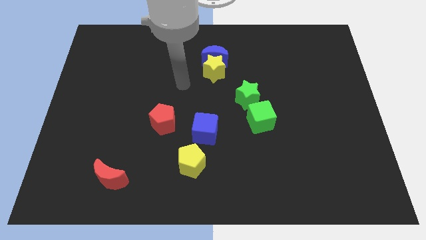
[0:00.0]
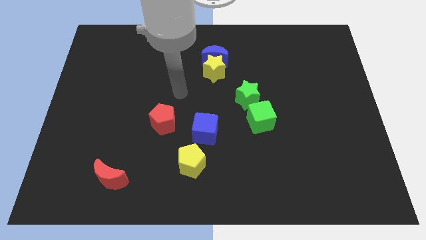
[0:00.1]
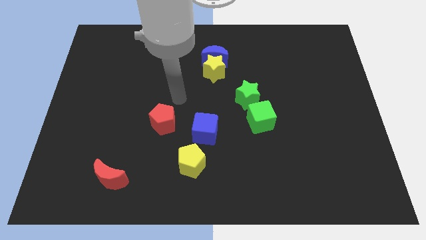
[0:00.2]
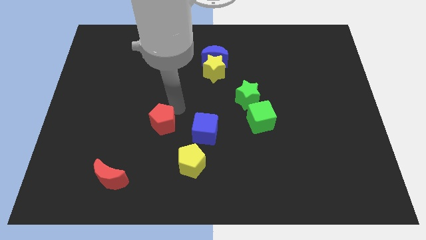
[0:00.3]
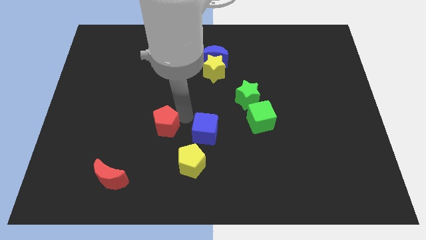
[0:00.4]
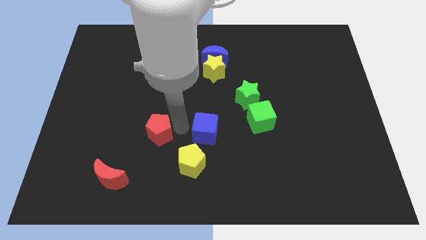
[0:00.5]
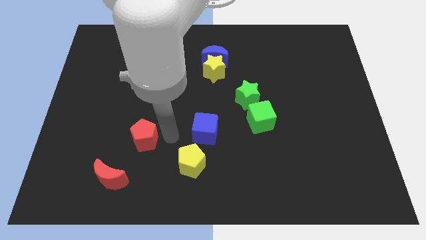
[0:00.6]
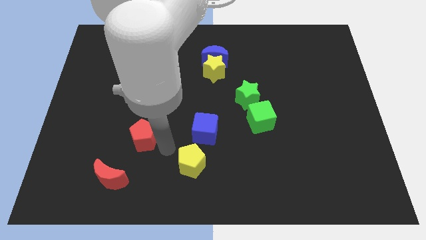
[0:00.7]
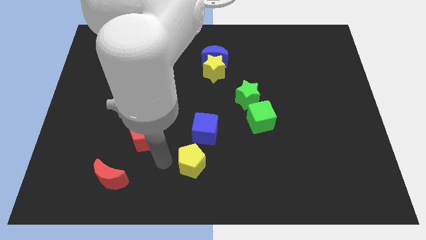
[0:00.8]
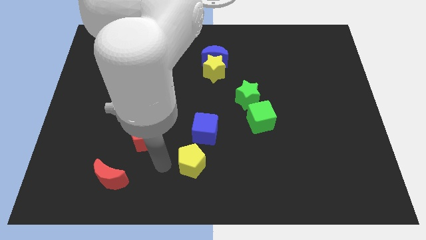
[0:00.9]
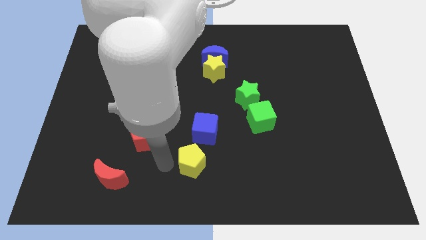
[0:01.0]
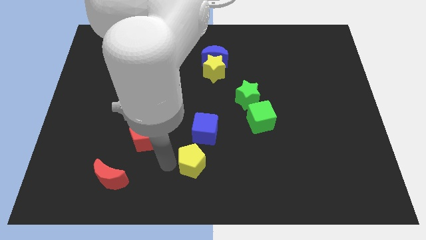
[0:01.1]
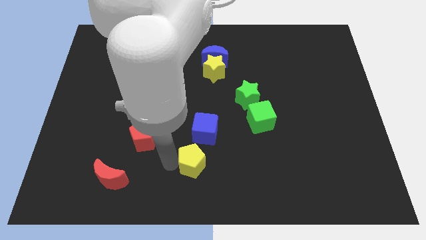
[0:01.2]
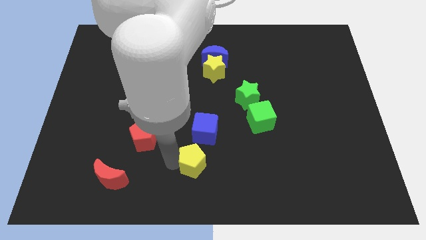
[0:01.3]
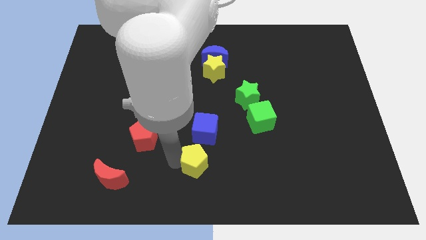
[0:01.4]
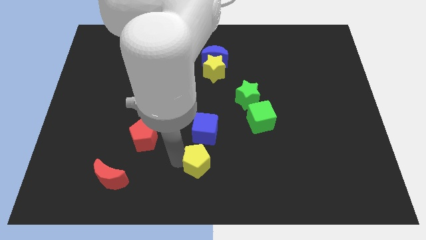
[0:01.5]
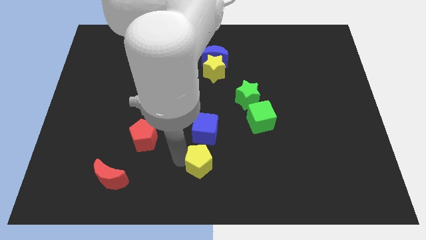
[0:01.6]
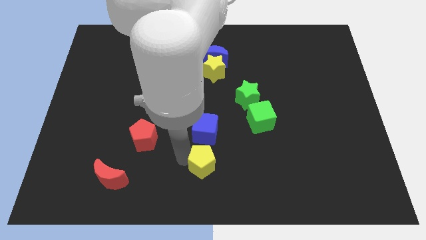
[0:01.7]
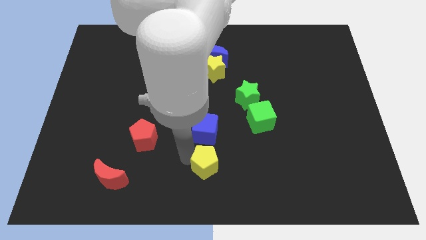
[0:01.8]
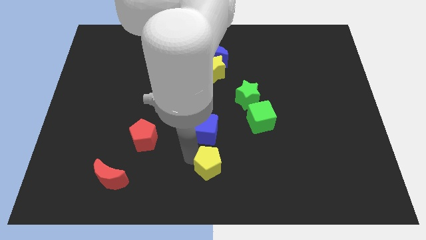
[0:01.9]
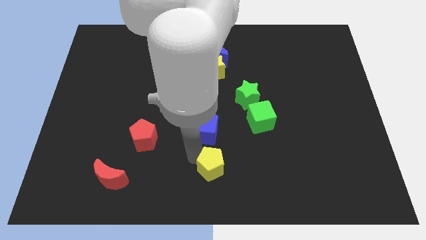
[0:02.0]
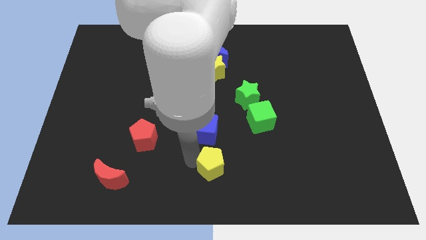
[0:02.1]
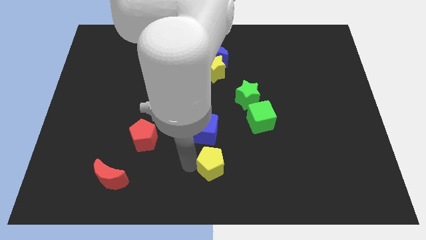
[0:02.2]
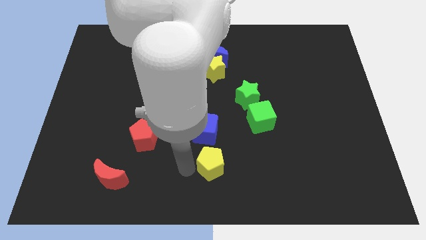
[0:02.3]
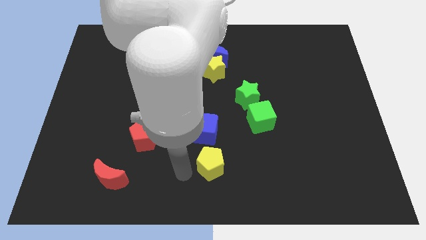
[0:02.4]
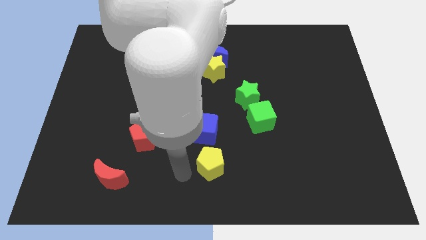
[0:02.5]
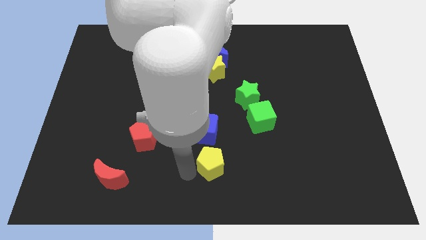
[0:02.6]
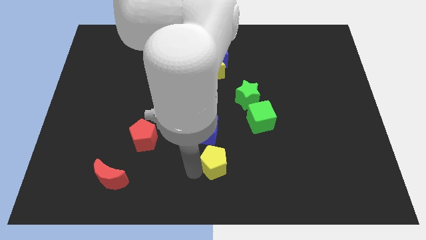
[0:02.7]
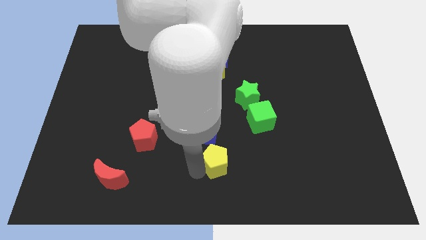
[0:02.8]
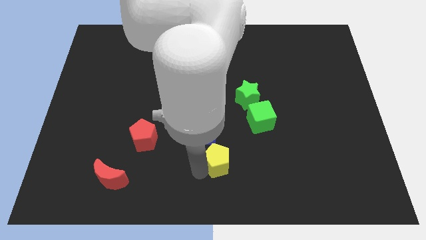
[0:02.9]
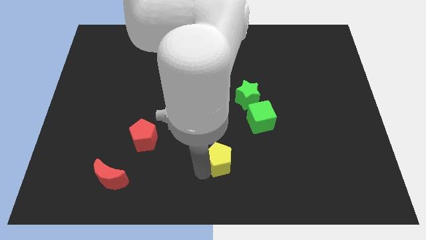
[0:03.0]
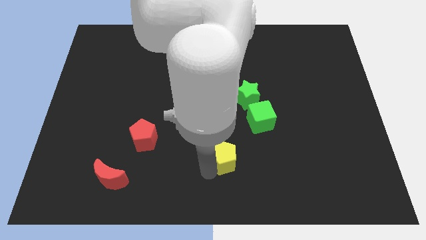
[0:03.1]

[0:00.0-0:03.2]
slide the yellow pentagon a little right

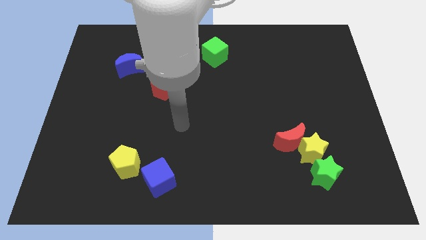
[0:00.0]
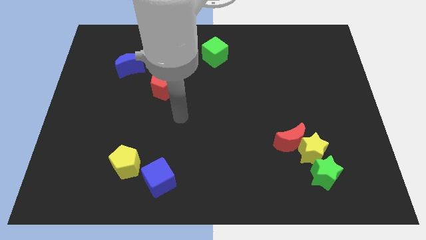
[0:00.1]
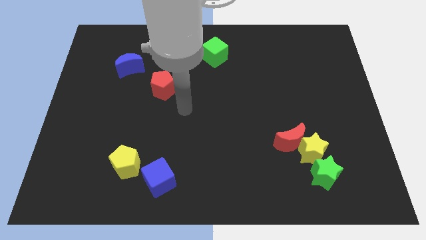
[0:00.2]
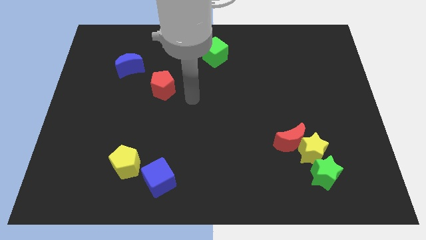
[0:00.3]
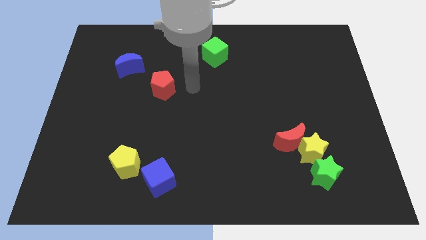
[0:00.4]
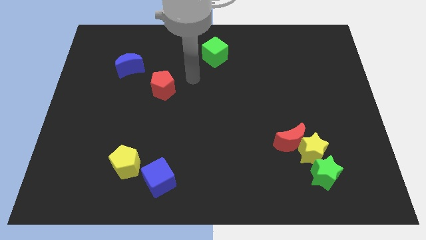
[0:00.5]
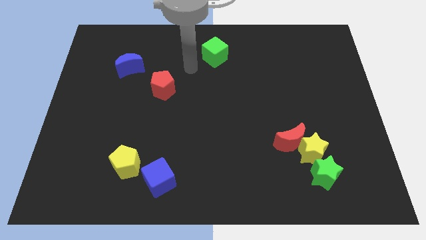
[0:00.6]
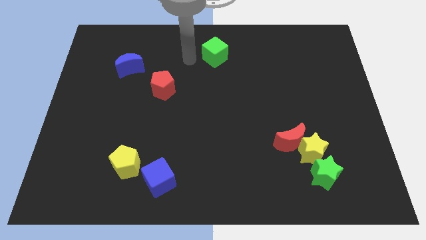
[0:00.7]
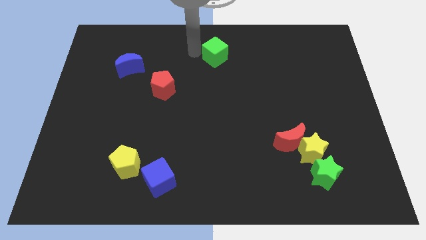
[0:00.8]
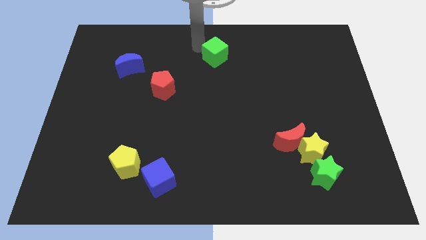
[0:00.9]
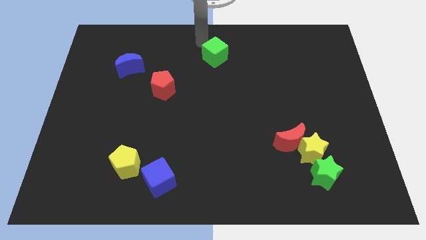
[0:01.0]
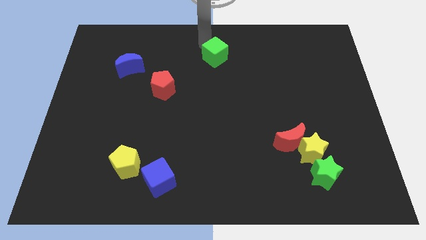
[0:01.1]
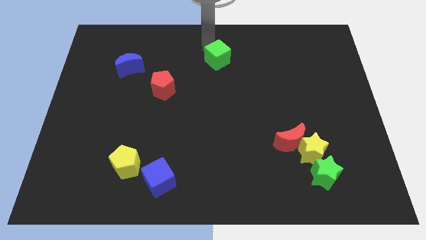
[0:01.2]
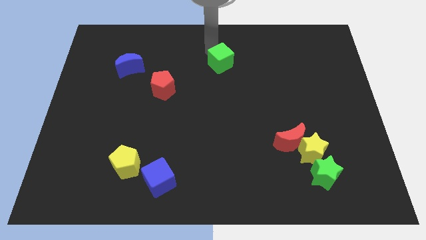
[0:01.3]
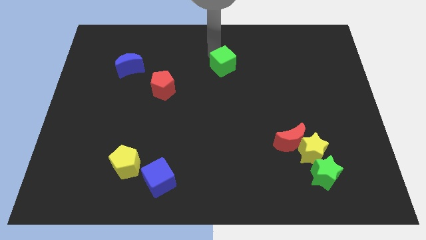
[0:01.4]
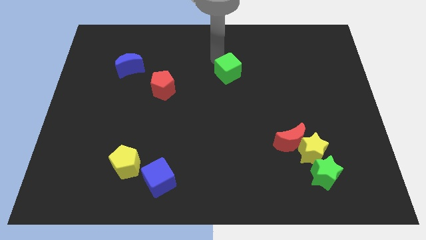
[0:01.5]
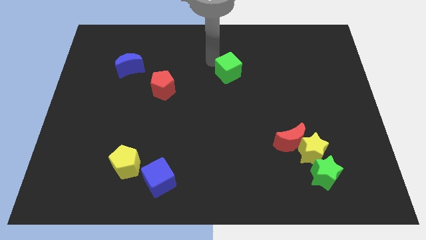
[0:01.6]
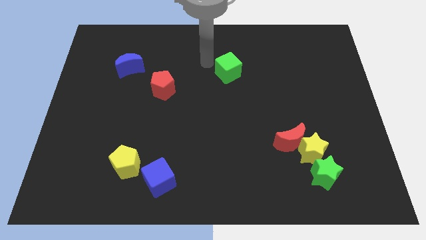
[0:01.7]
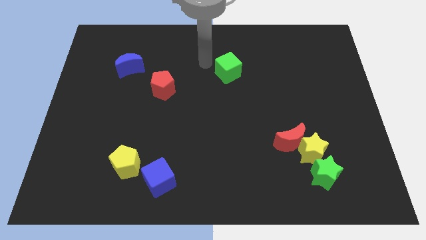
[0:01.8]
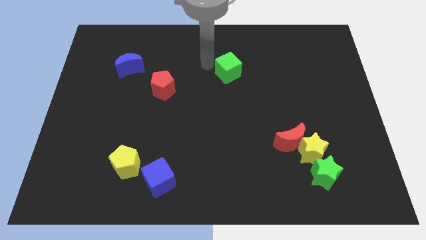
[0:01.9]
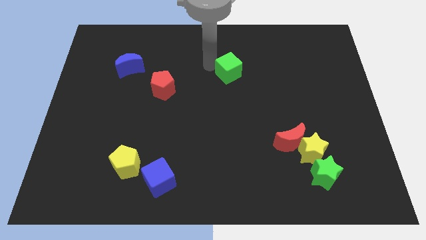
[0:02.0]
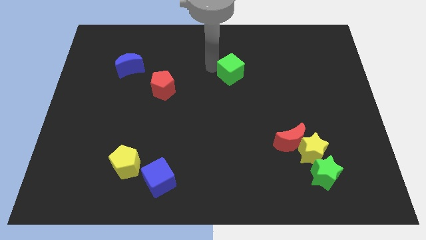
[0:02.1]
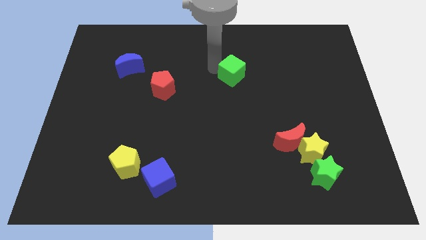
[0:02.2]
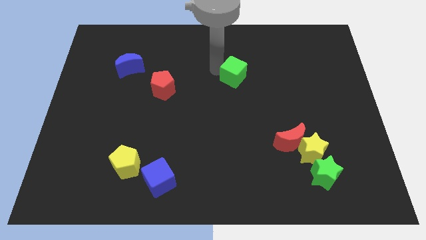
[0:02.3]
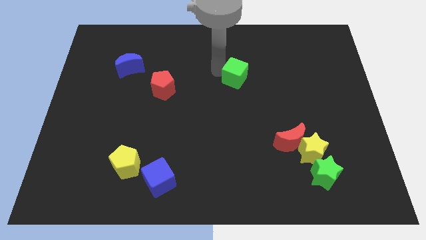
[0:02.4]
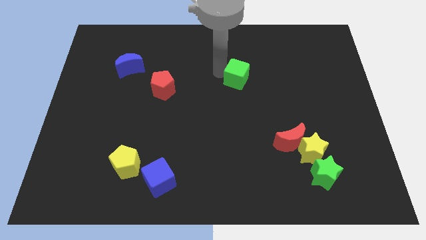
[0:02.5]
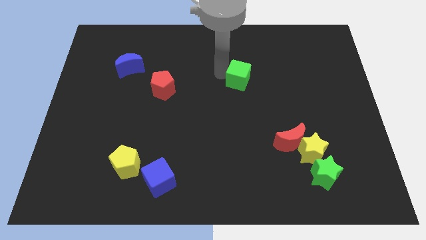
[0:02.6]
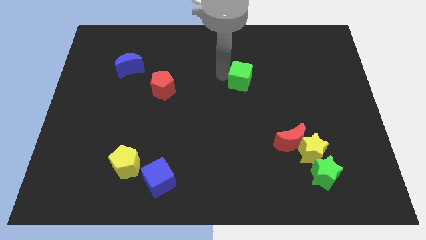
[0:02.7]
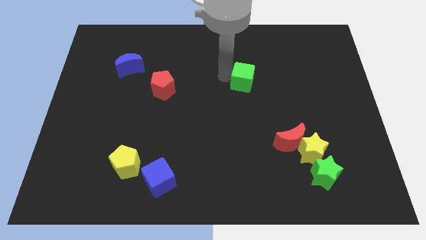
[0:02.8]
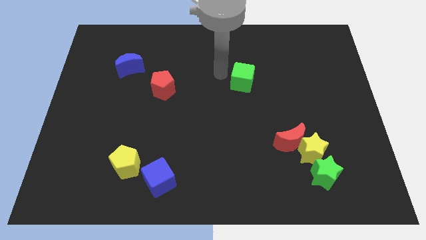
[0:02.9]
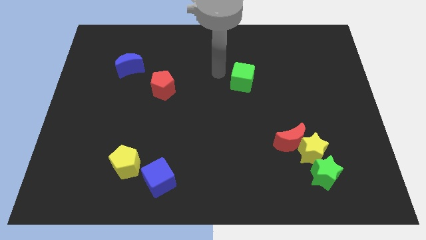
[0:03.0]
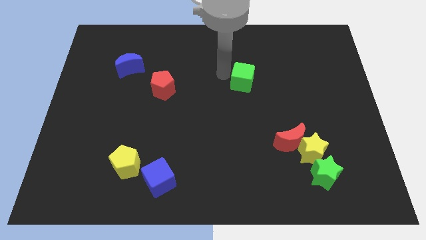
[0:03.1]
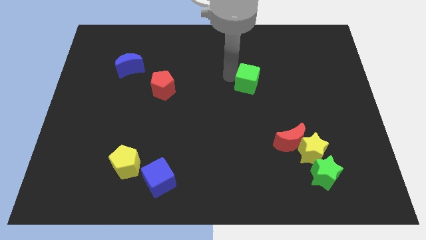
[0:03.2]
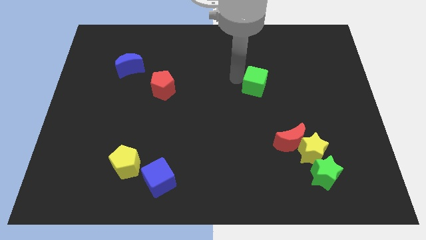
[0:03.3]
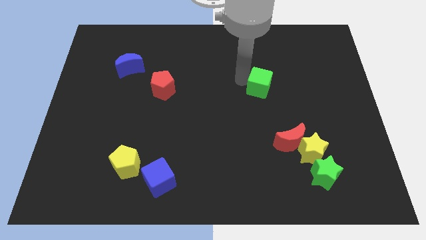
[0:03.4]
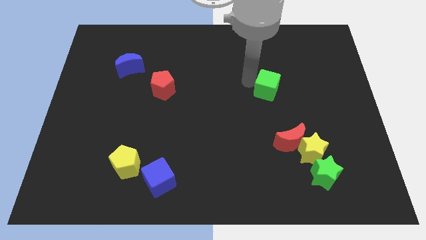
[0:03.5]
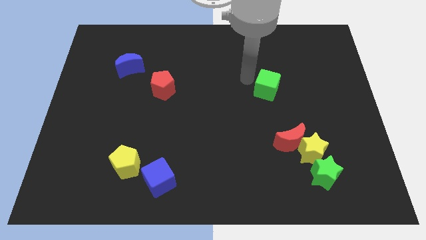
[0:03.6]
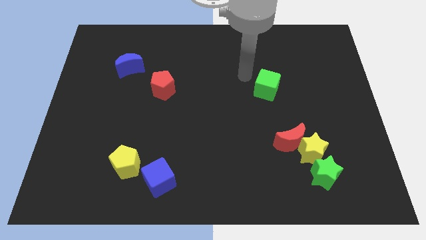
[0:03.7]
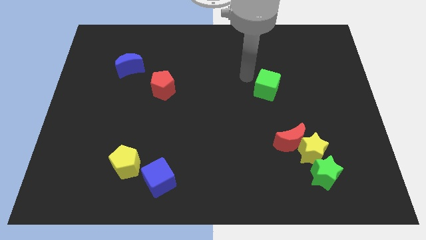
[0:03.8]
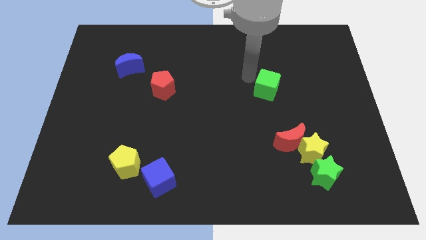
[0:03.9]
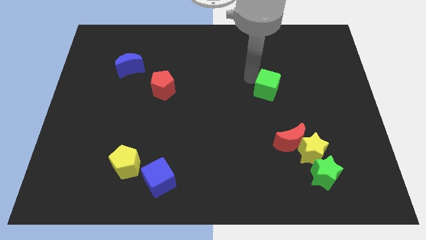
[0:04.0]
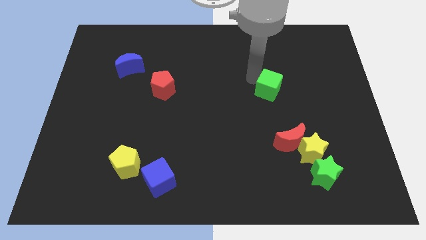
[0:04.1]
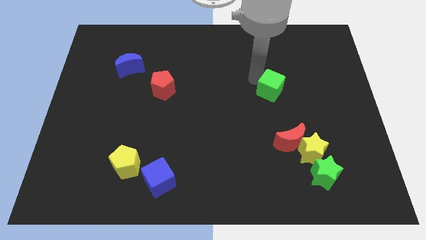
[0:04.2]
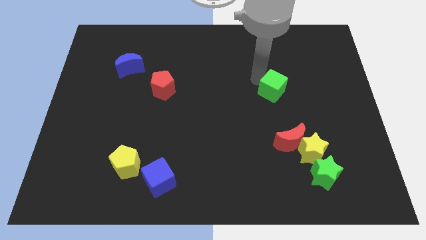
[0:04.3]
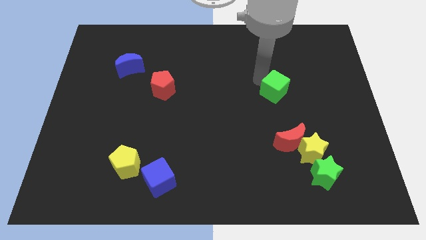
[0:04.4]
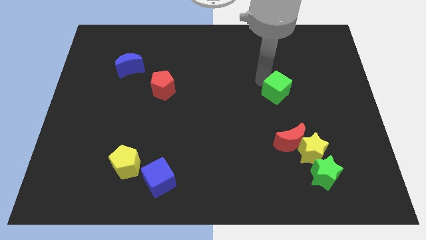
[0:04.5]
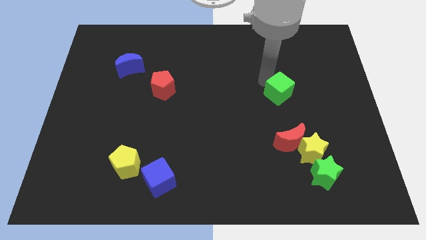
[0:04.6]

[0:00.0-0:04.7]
push the green cube diagonally down and to the right
